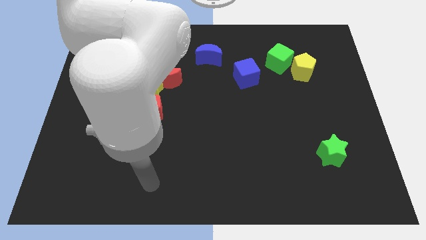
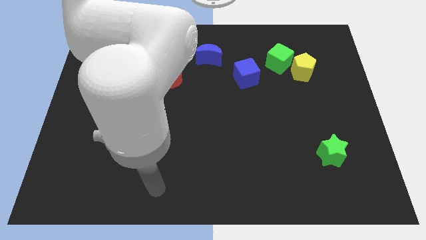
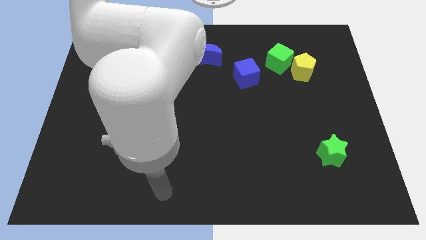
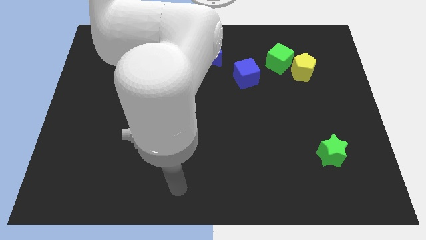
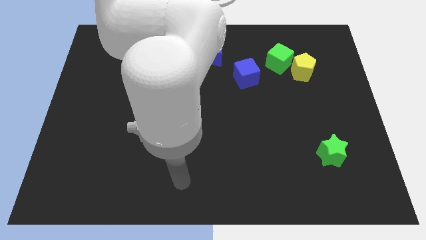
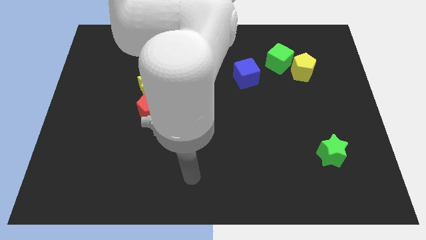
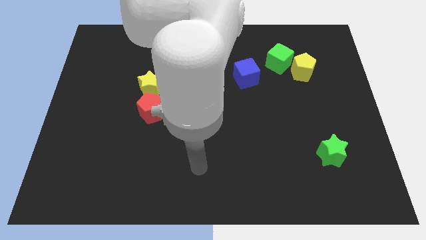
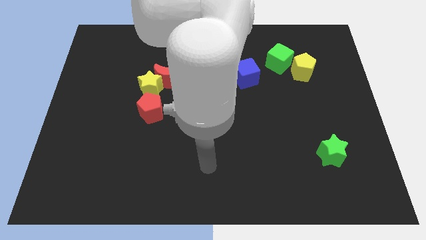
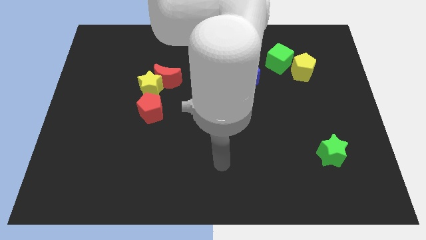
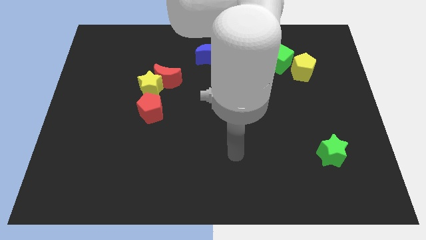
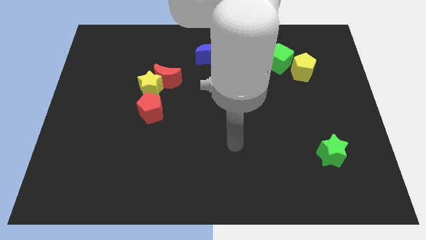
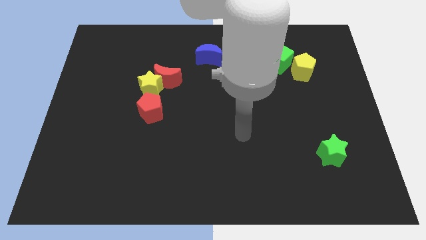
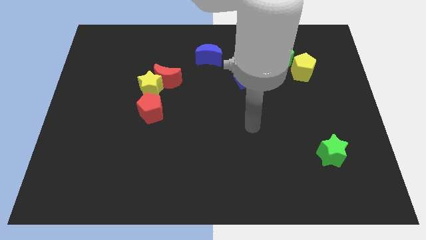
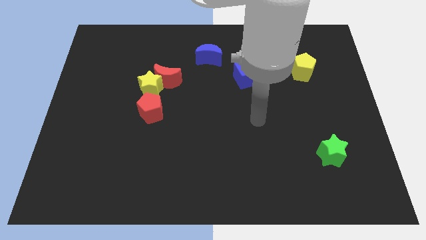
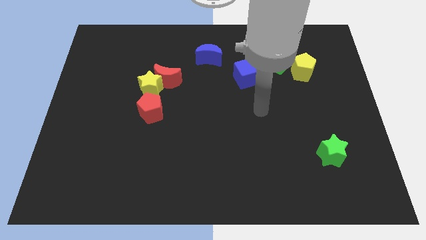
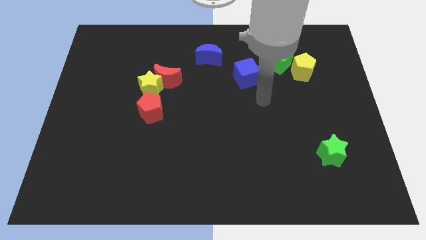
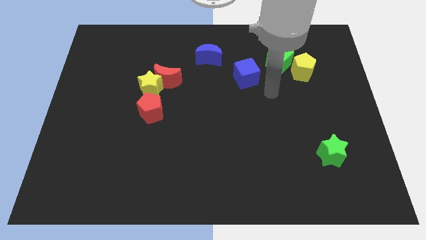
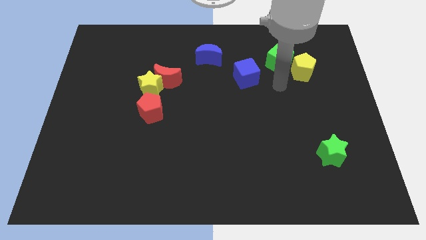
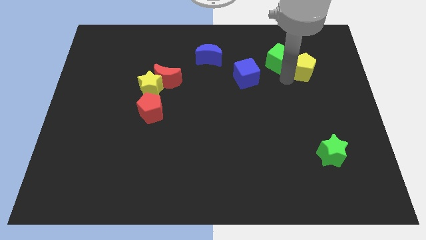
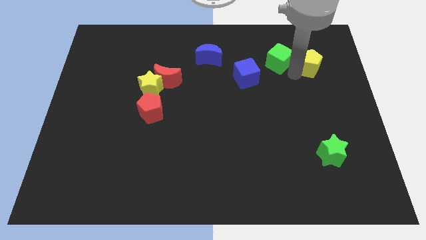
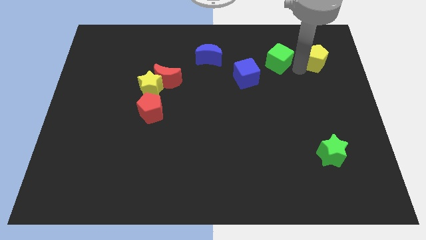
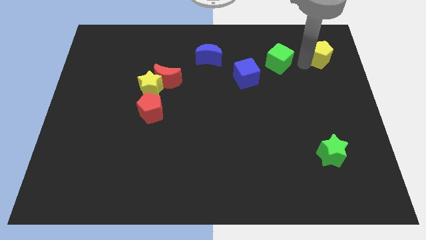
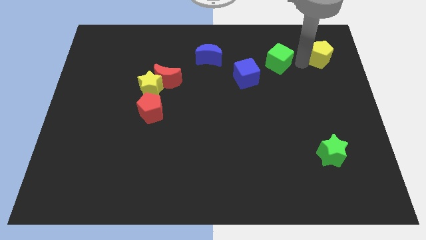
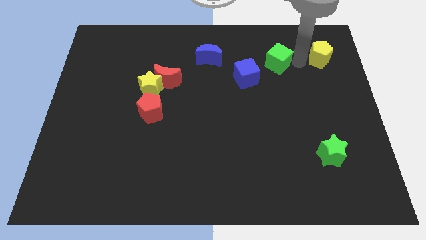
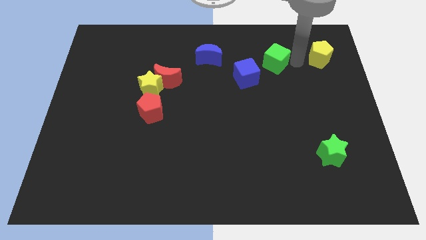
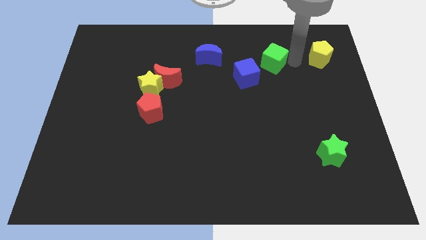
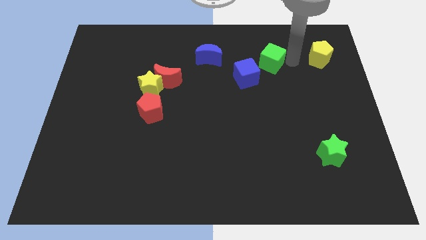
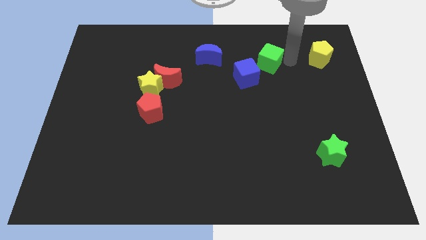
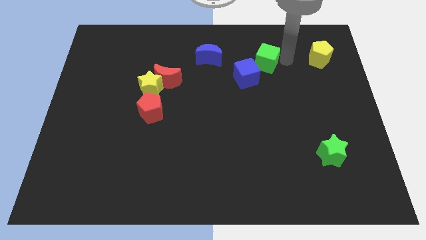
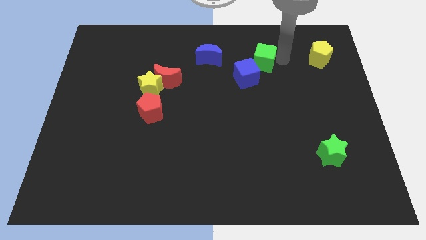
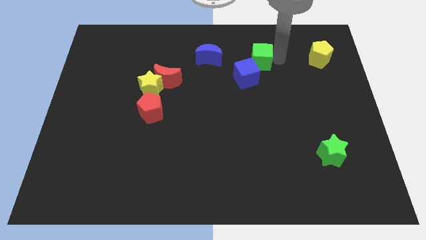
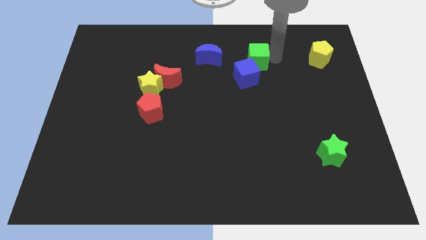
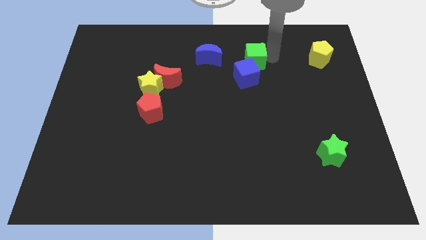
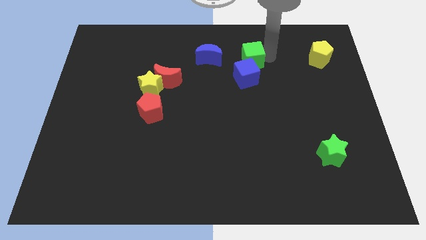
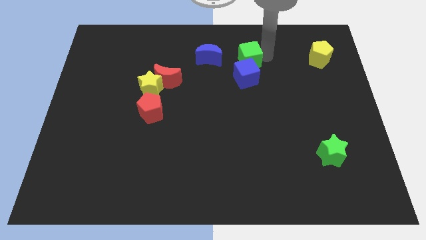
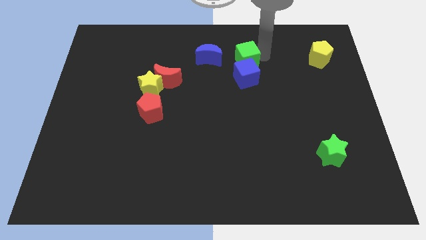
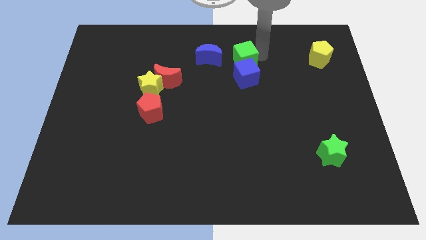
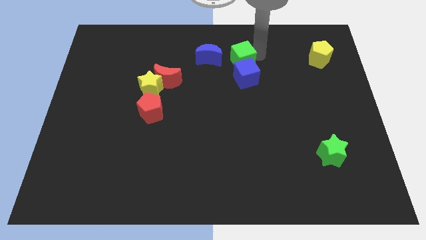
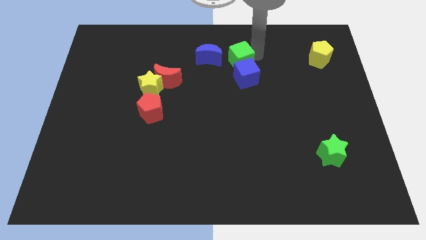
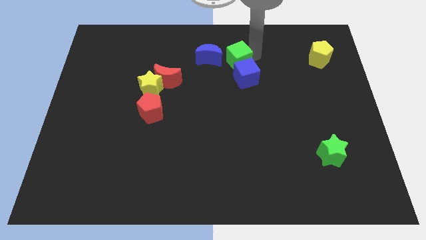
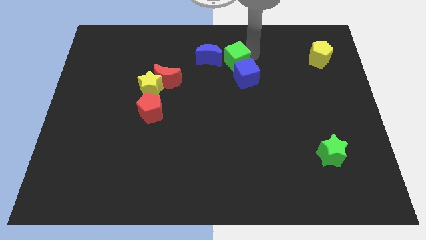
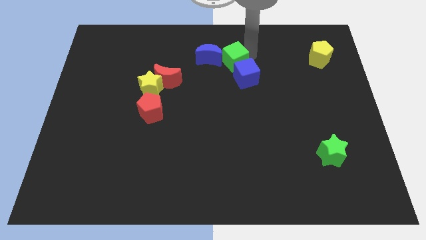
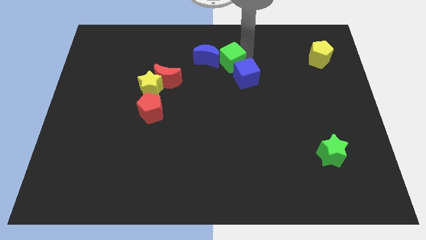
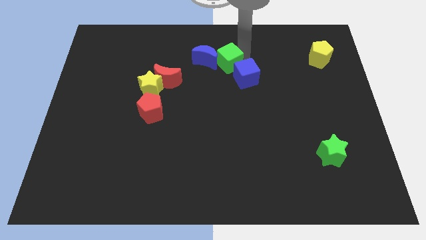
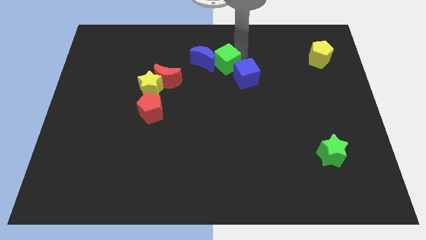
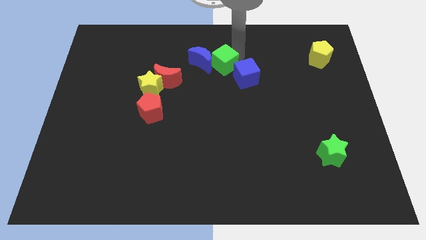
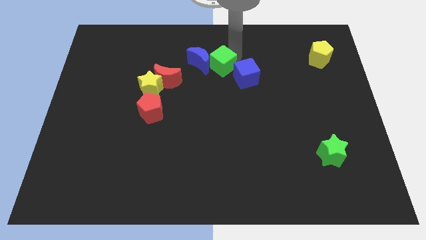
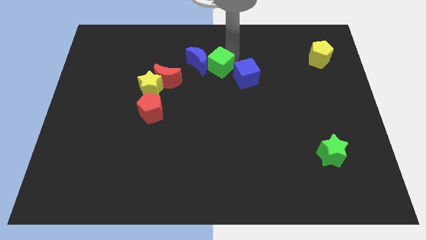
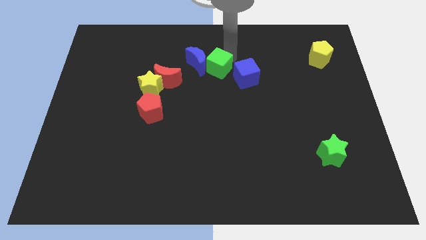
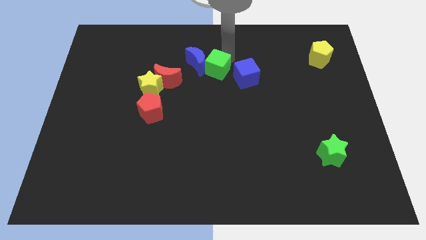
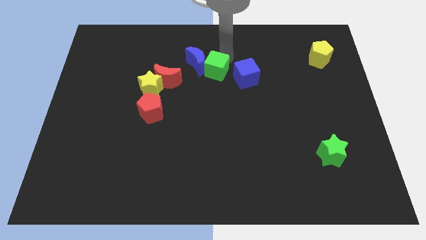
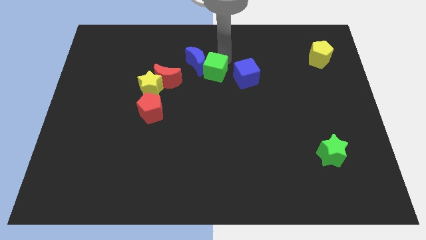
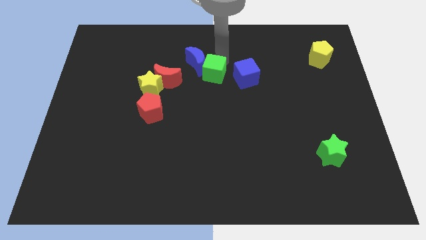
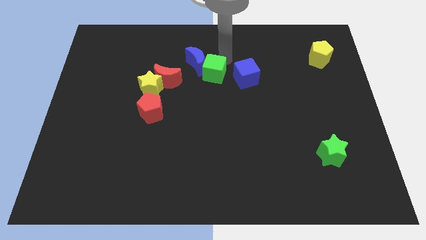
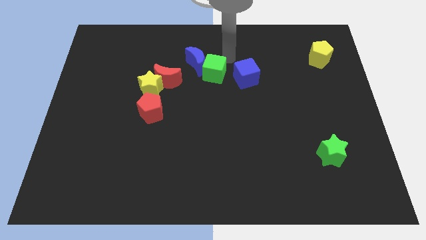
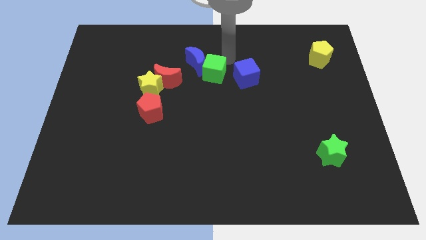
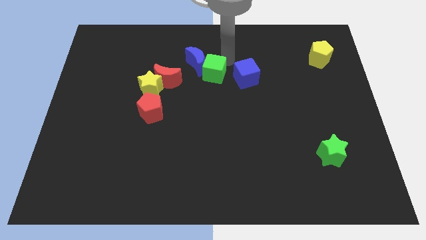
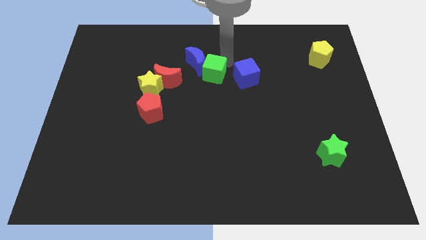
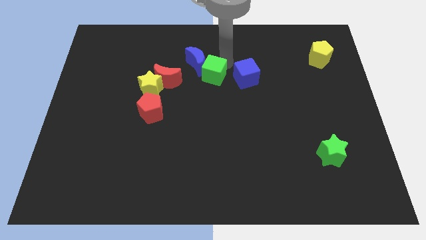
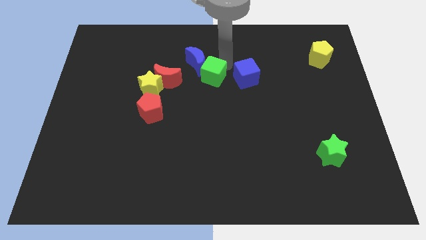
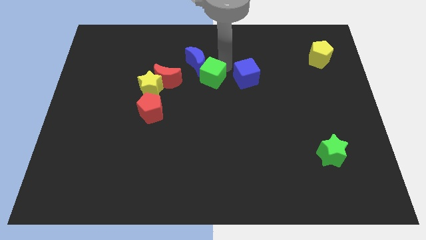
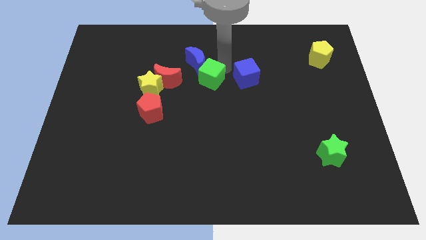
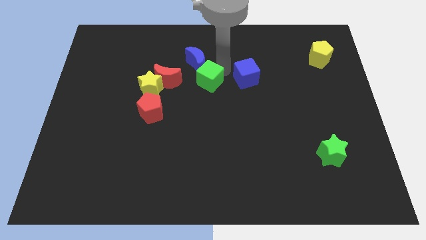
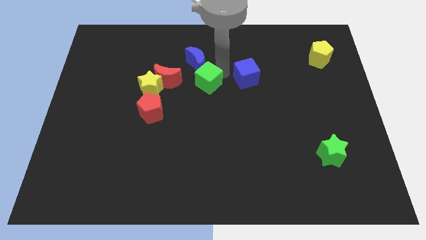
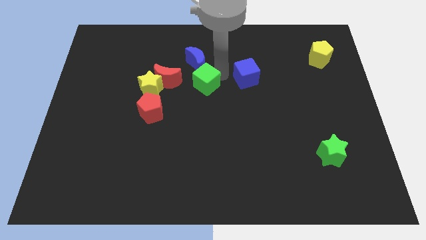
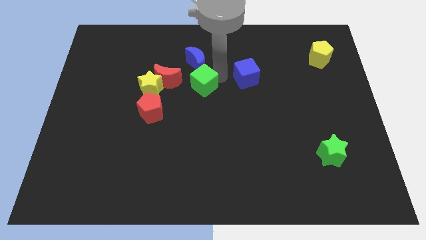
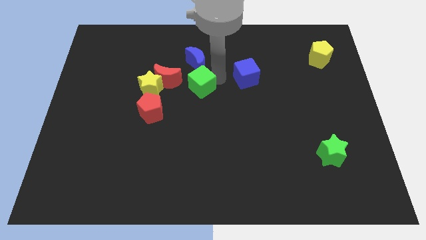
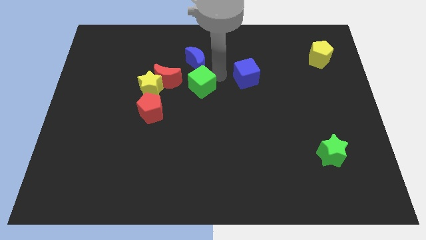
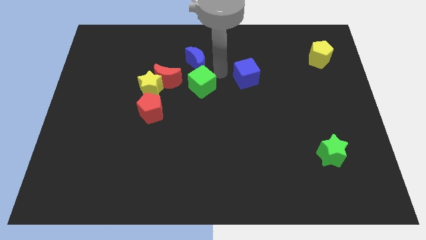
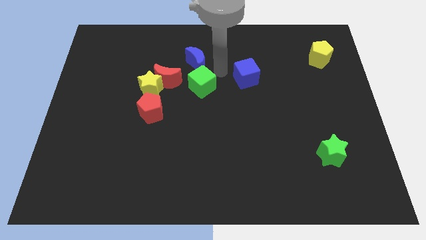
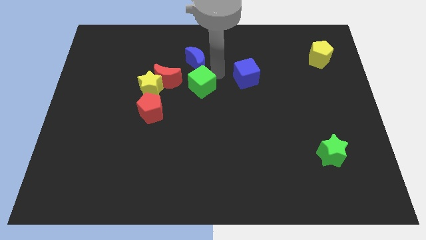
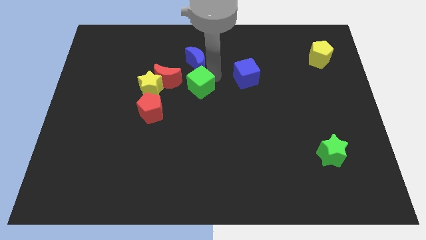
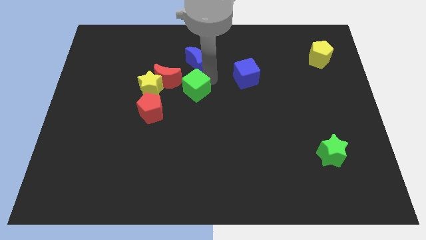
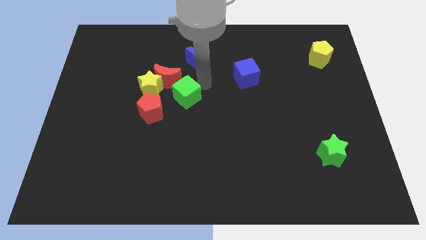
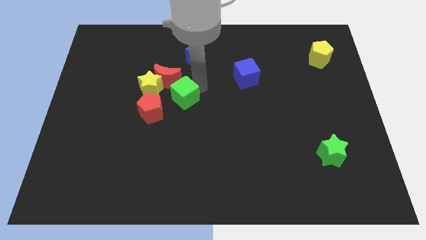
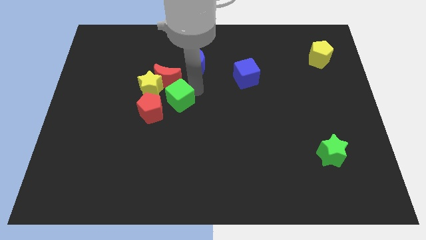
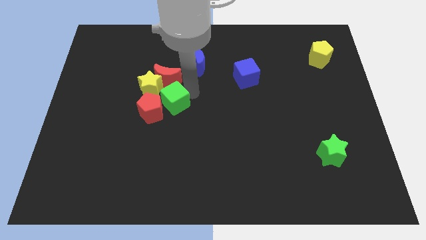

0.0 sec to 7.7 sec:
put the green cube to the red pentagon

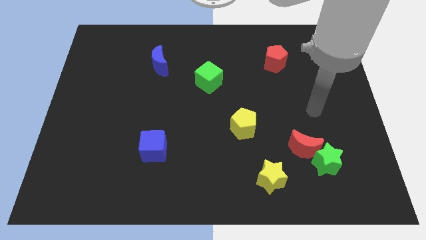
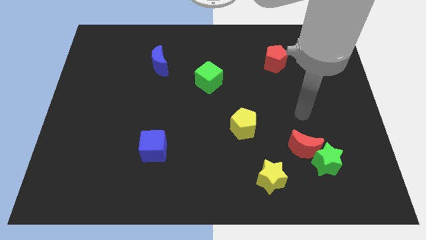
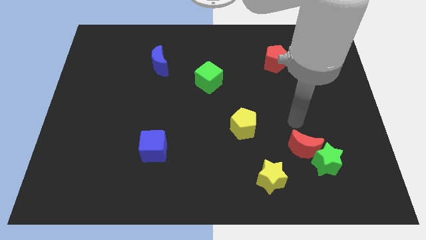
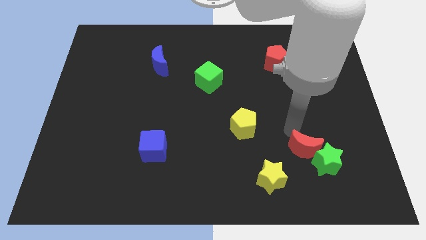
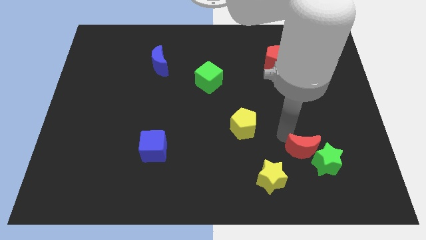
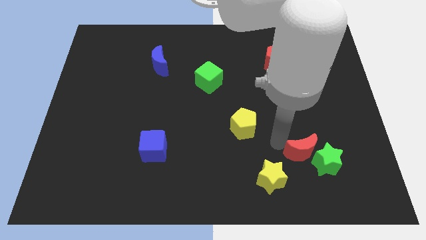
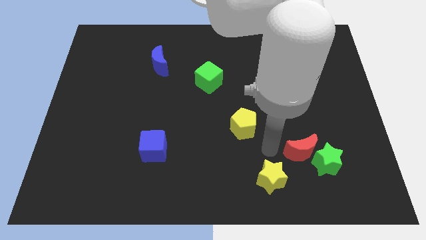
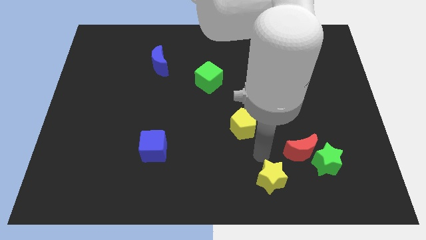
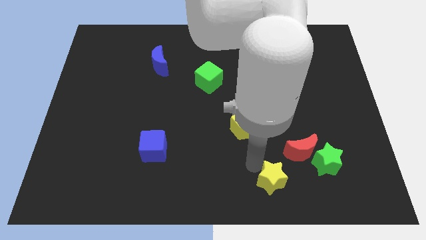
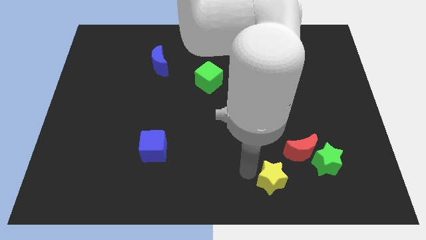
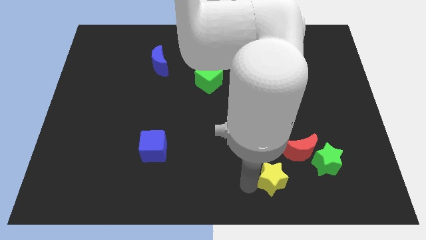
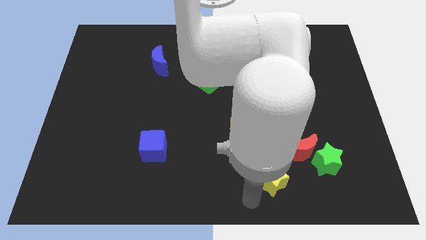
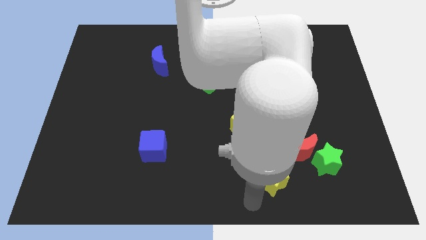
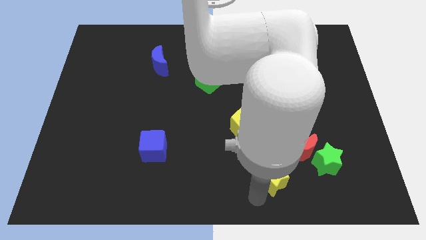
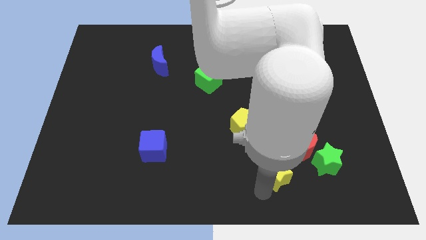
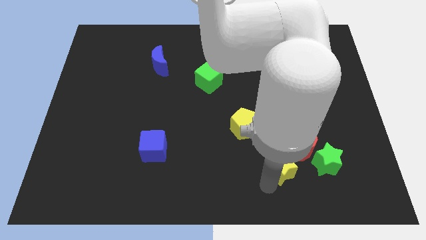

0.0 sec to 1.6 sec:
move the yellow star close to the red moon
